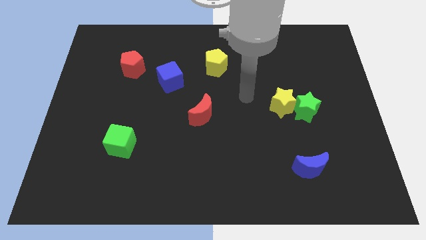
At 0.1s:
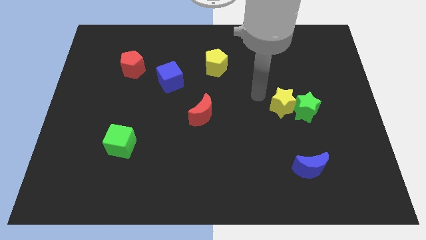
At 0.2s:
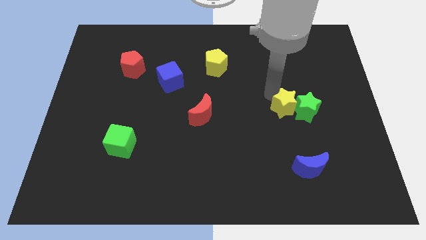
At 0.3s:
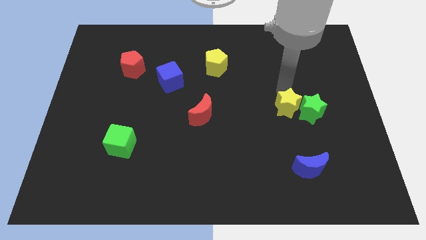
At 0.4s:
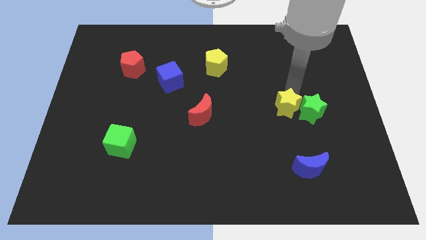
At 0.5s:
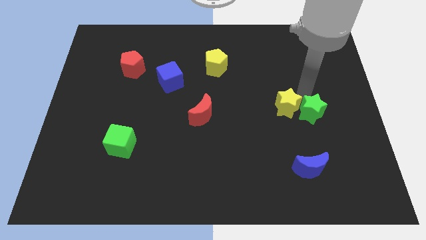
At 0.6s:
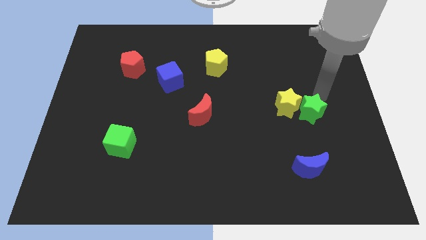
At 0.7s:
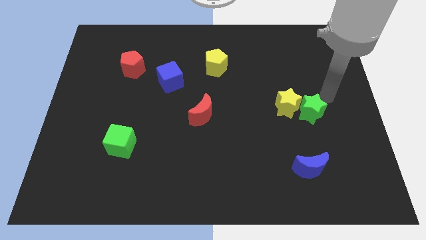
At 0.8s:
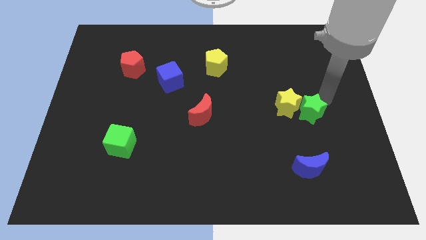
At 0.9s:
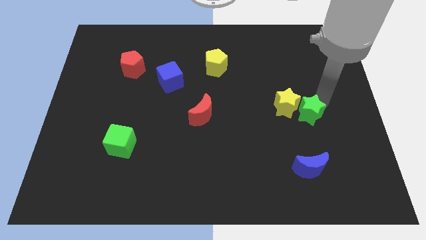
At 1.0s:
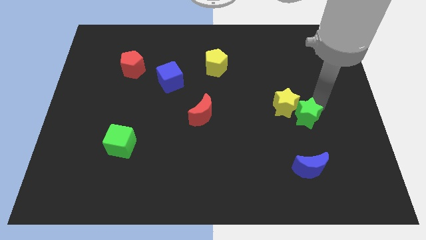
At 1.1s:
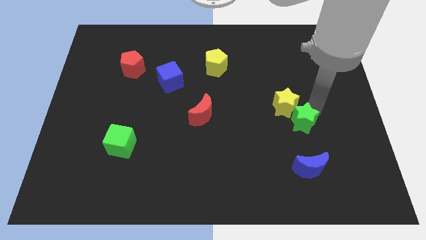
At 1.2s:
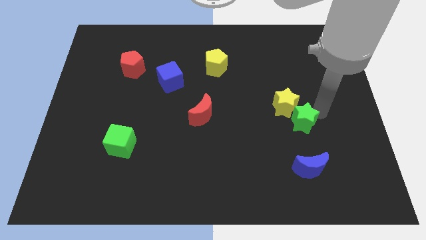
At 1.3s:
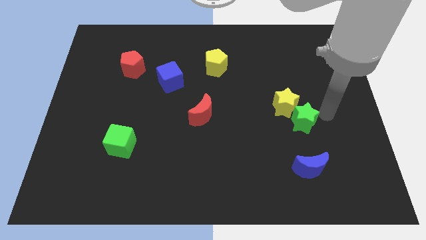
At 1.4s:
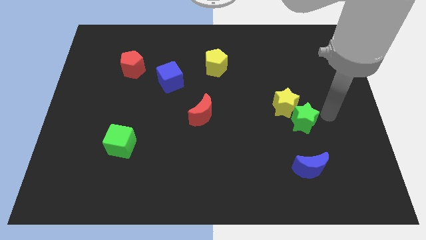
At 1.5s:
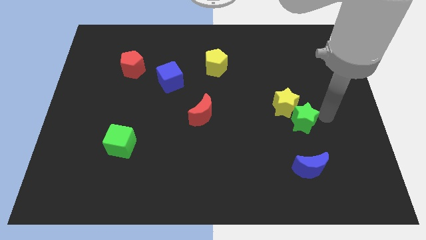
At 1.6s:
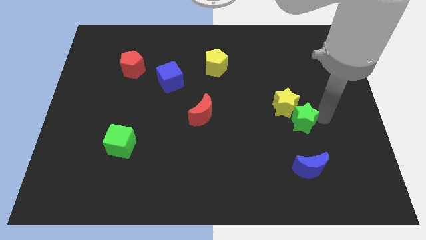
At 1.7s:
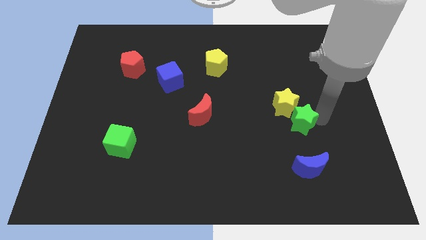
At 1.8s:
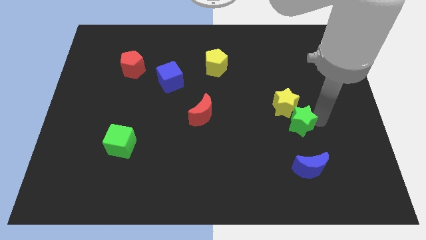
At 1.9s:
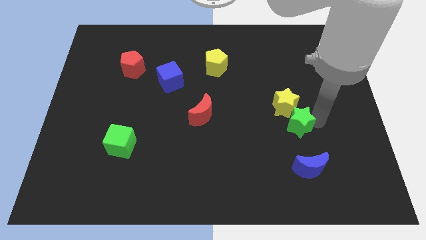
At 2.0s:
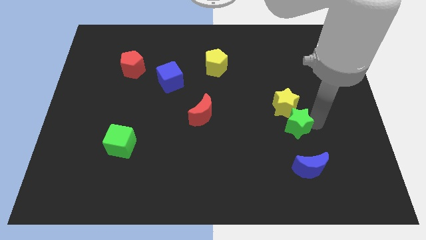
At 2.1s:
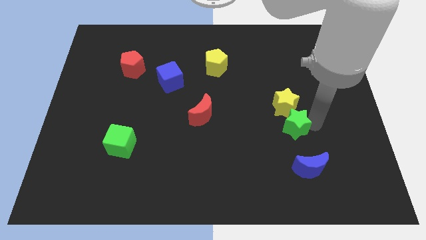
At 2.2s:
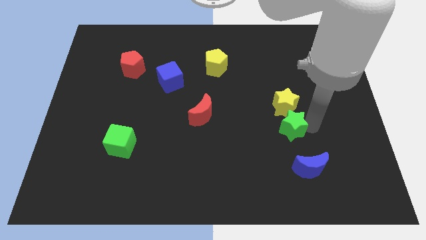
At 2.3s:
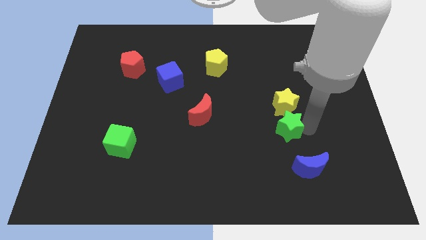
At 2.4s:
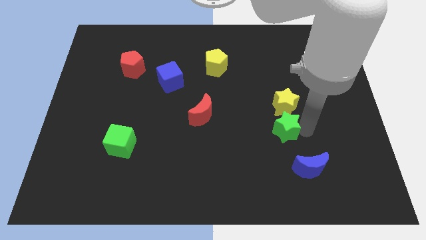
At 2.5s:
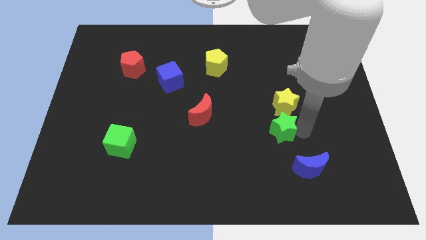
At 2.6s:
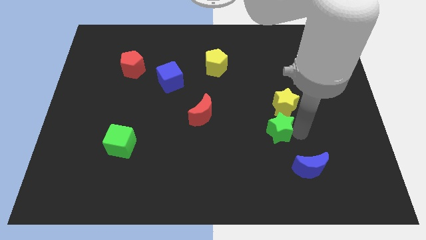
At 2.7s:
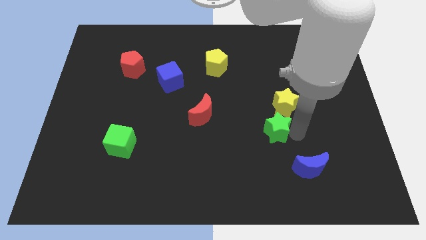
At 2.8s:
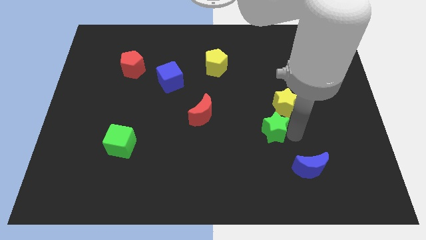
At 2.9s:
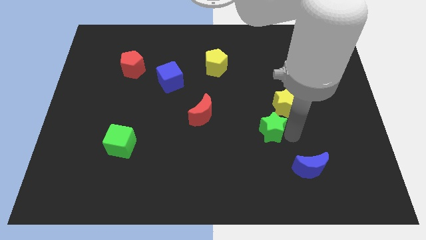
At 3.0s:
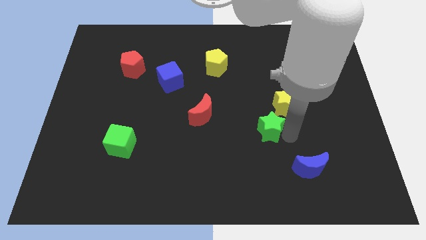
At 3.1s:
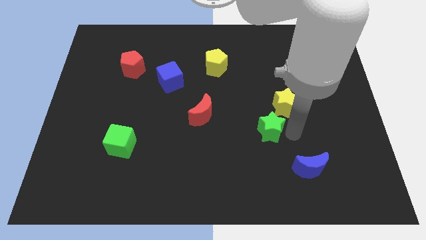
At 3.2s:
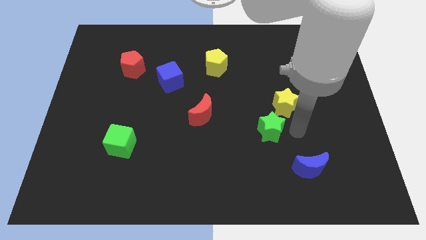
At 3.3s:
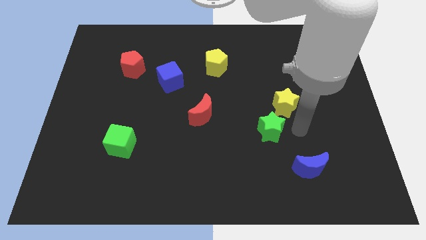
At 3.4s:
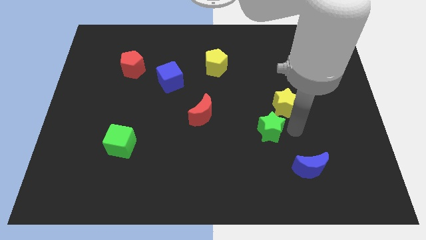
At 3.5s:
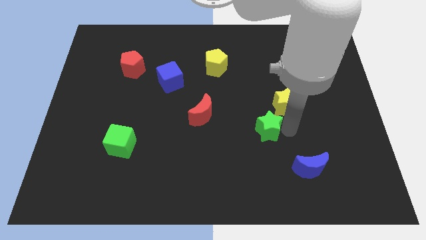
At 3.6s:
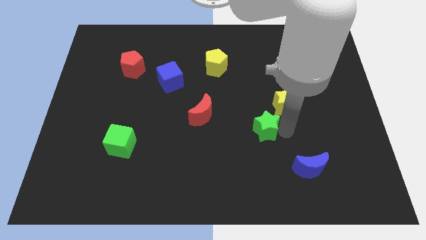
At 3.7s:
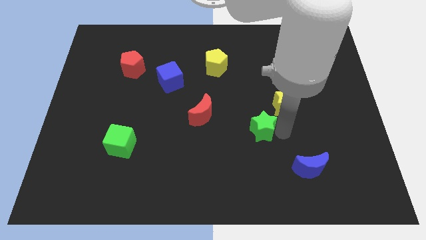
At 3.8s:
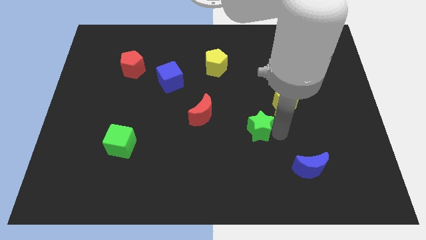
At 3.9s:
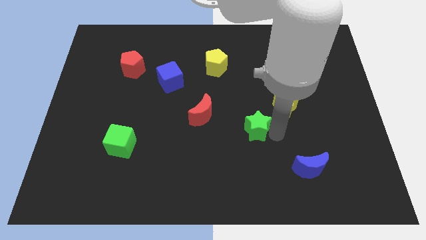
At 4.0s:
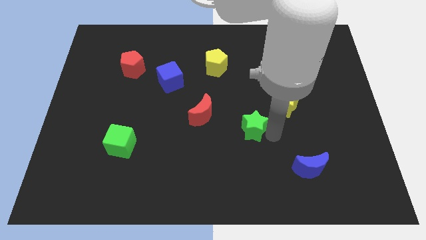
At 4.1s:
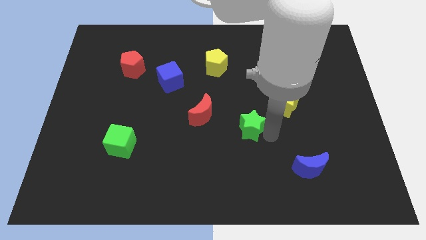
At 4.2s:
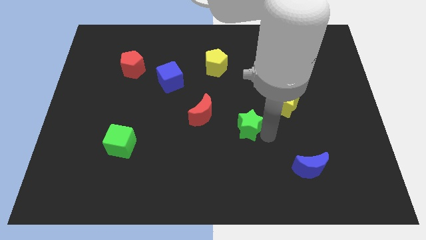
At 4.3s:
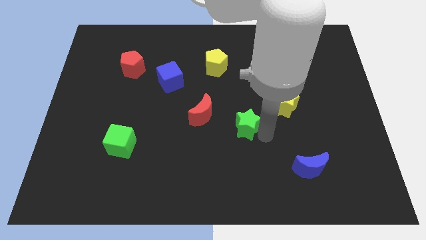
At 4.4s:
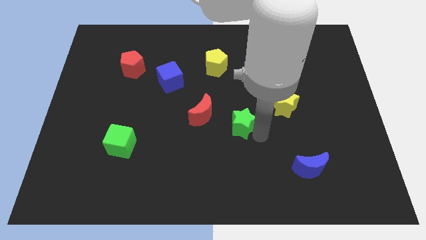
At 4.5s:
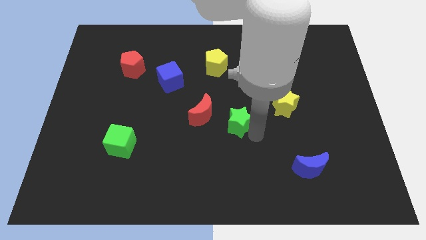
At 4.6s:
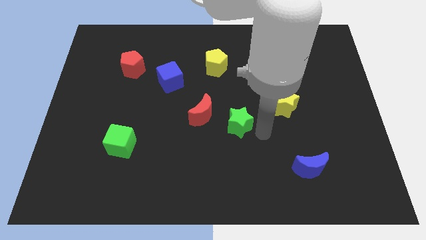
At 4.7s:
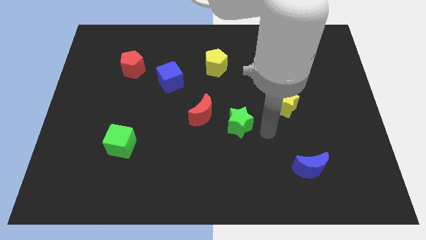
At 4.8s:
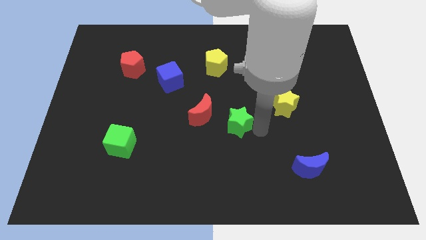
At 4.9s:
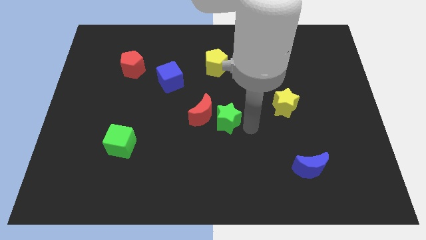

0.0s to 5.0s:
move the green star next to the red moon

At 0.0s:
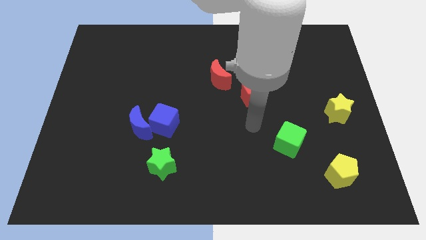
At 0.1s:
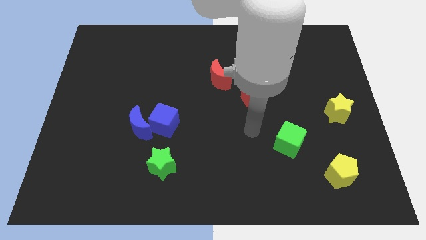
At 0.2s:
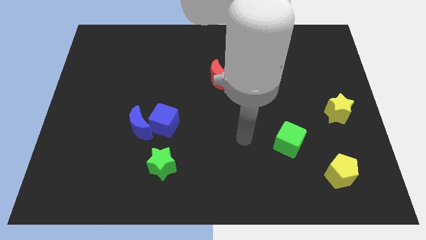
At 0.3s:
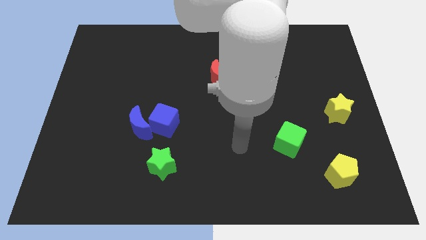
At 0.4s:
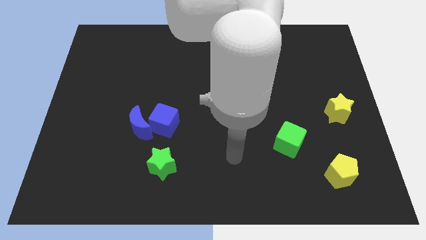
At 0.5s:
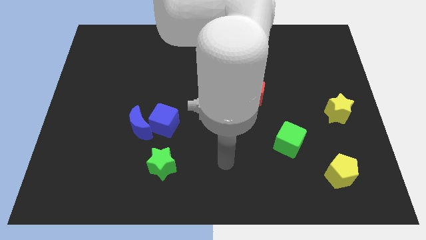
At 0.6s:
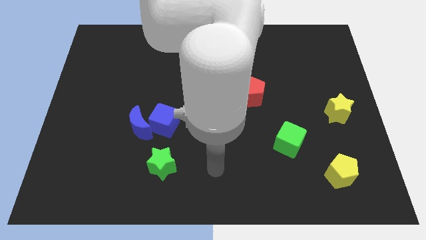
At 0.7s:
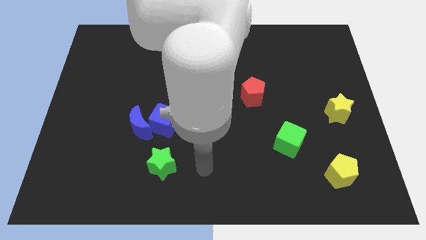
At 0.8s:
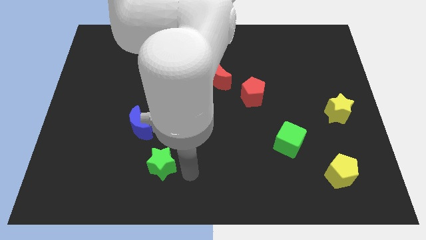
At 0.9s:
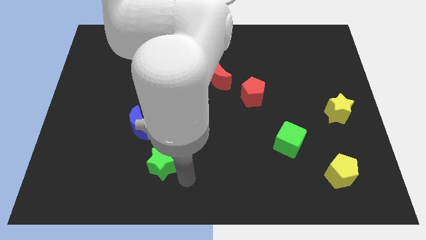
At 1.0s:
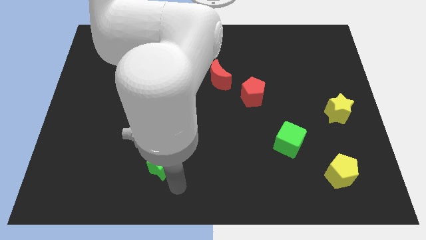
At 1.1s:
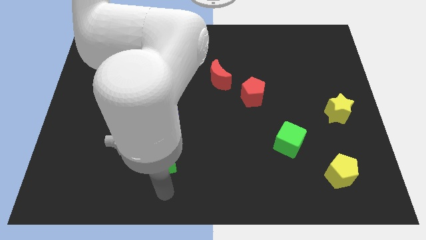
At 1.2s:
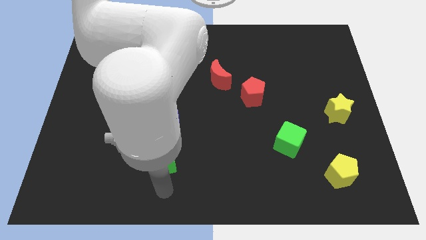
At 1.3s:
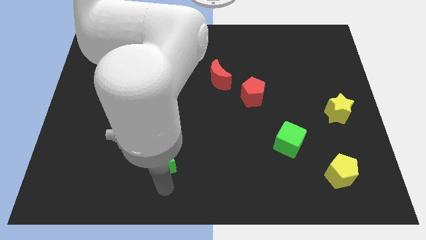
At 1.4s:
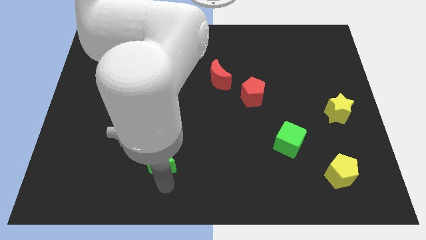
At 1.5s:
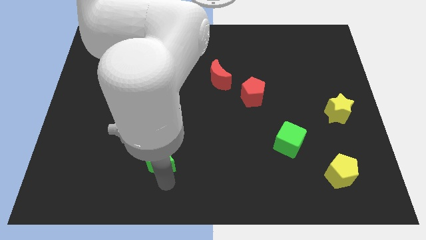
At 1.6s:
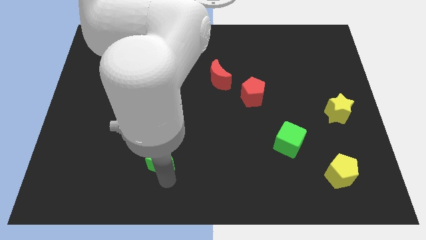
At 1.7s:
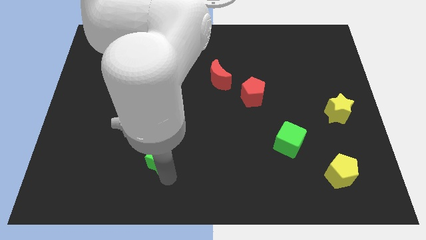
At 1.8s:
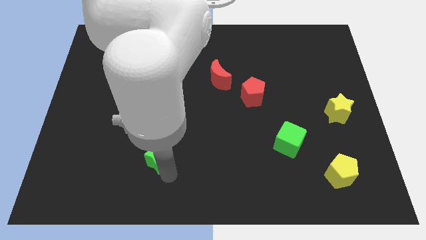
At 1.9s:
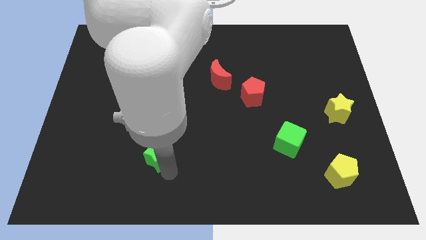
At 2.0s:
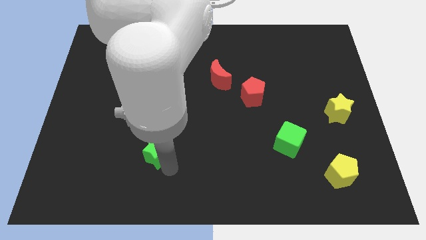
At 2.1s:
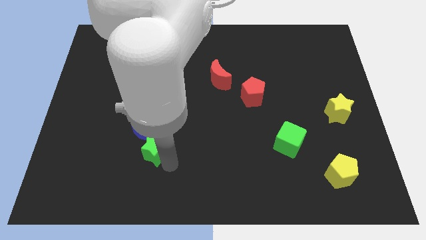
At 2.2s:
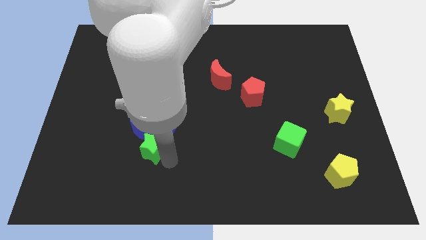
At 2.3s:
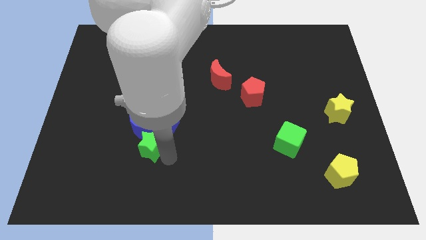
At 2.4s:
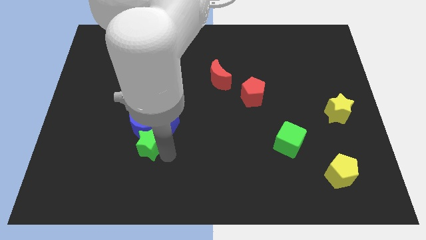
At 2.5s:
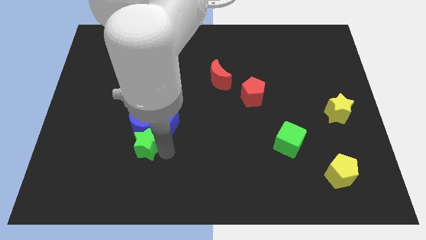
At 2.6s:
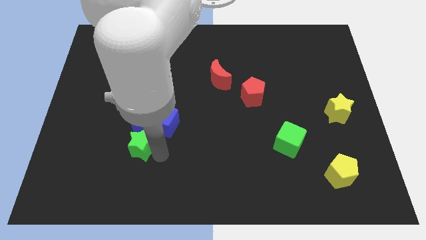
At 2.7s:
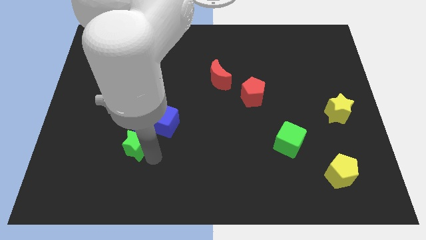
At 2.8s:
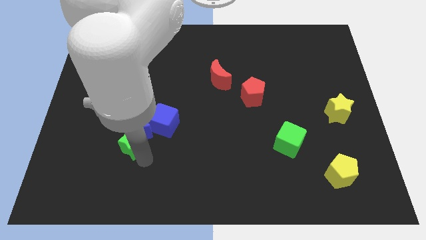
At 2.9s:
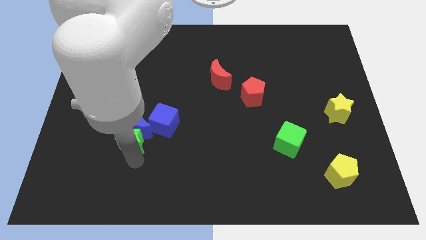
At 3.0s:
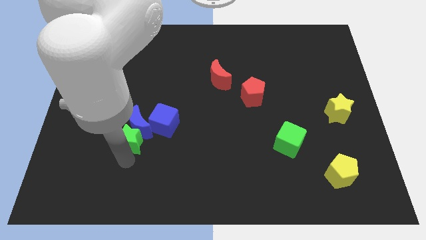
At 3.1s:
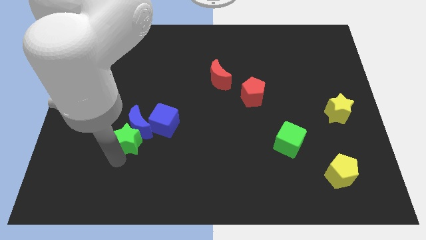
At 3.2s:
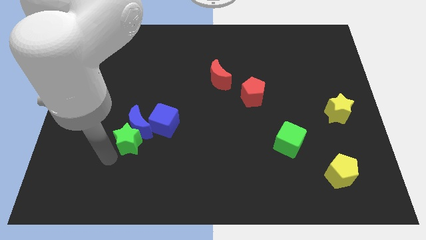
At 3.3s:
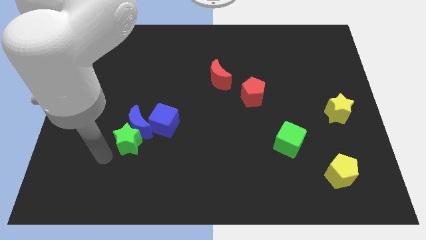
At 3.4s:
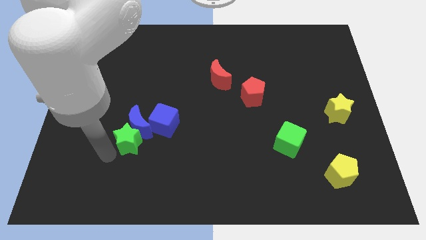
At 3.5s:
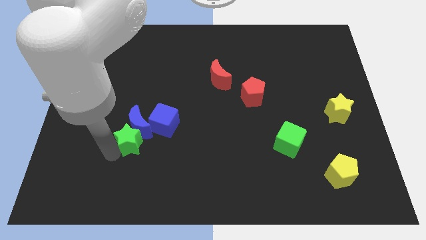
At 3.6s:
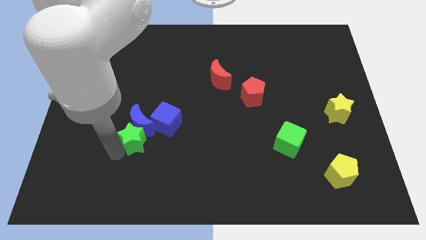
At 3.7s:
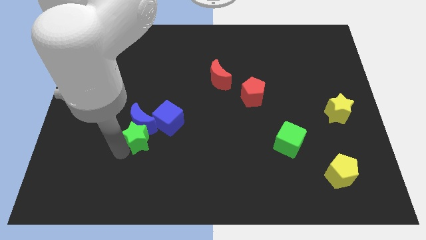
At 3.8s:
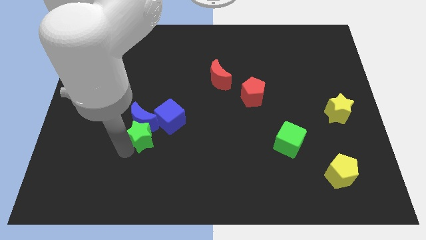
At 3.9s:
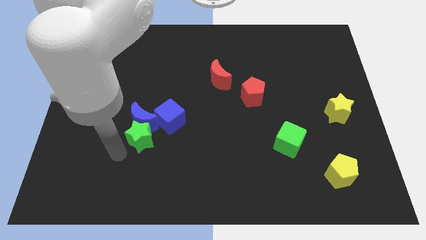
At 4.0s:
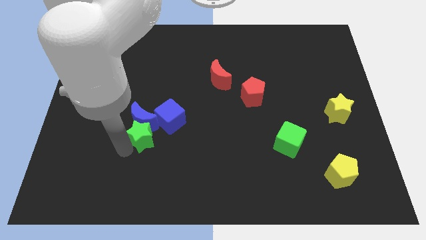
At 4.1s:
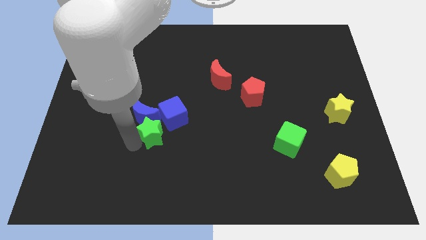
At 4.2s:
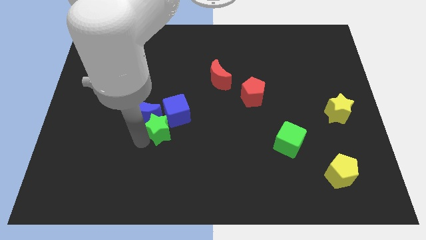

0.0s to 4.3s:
put the green star close to the blue cube
